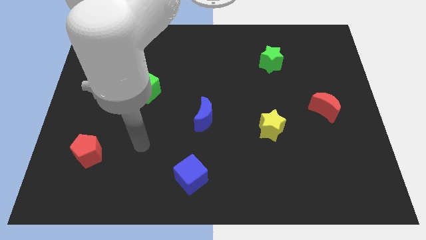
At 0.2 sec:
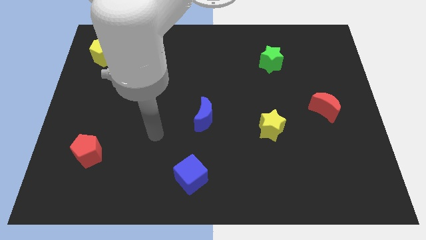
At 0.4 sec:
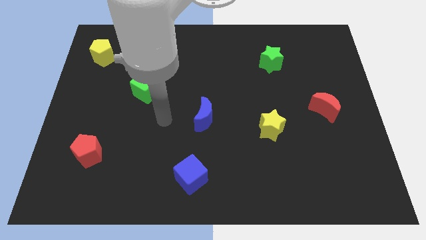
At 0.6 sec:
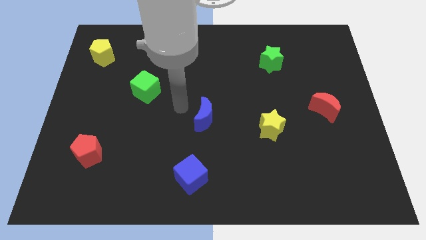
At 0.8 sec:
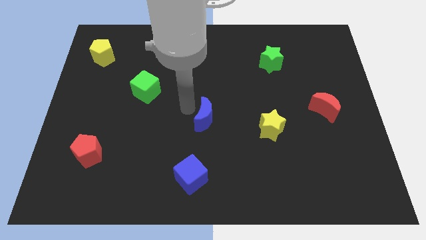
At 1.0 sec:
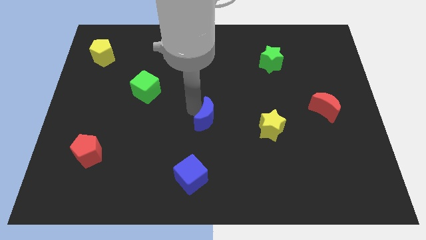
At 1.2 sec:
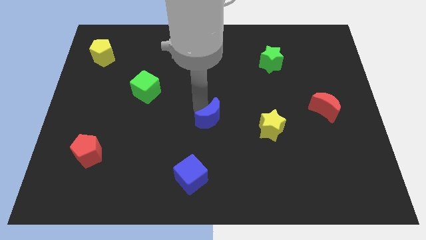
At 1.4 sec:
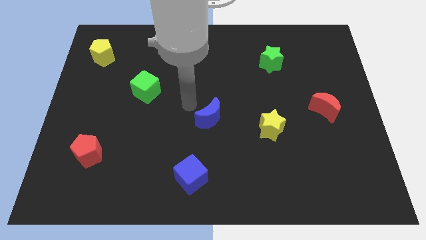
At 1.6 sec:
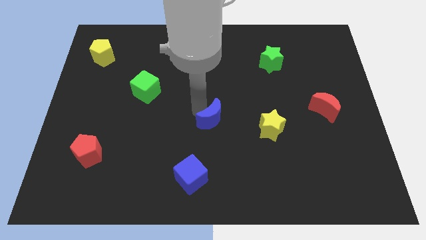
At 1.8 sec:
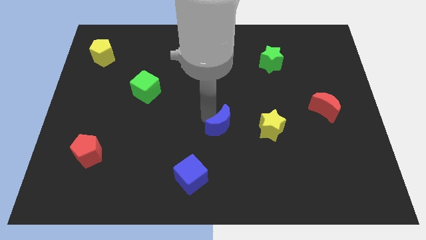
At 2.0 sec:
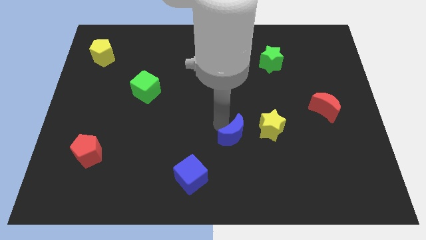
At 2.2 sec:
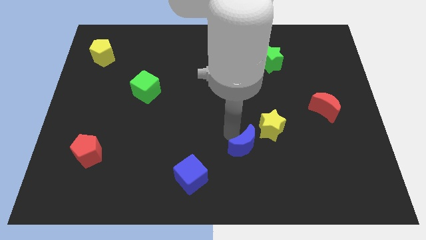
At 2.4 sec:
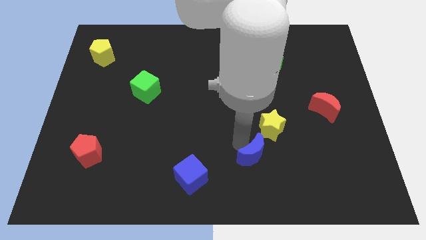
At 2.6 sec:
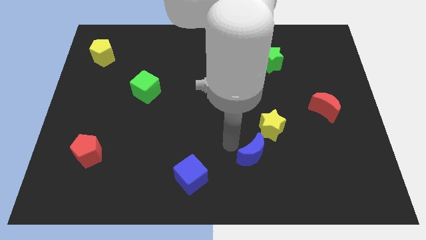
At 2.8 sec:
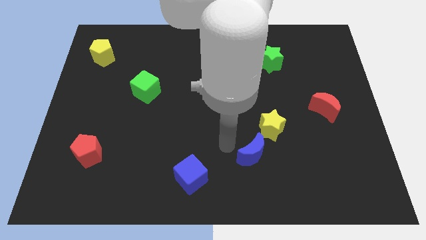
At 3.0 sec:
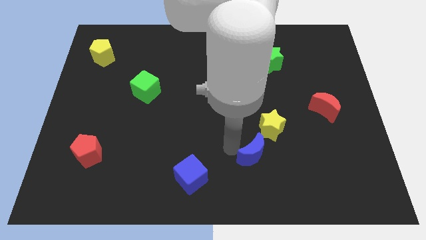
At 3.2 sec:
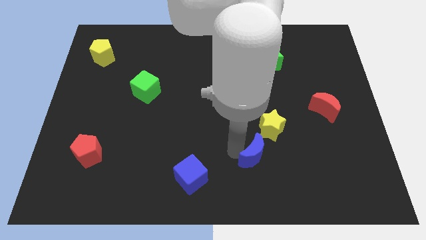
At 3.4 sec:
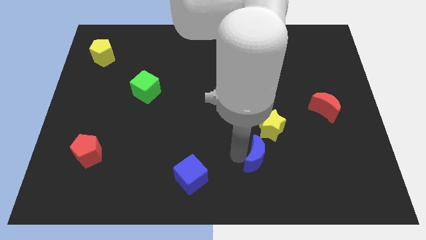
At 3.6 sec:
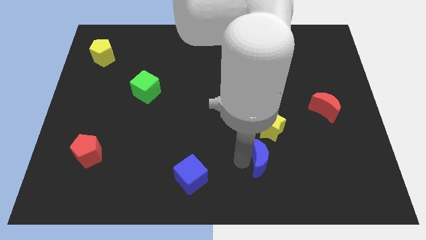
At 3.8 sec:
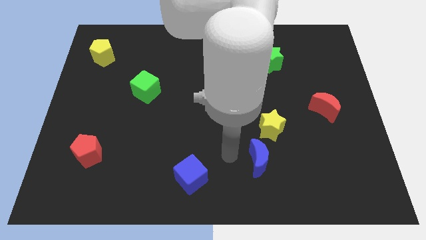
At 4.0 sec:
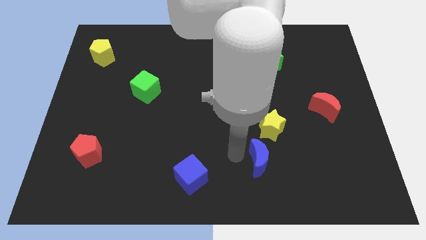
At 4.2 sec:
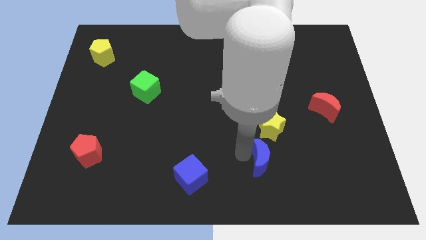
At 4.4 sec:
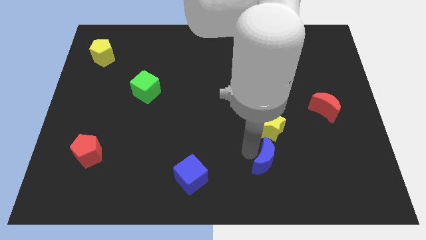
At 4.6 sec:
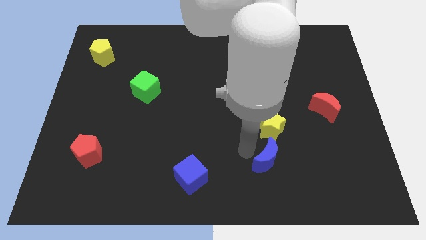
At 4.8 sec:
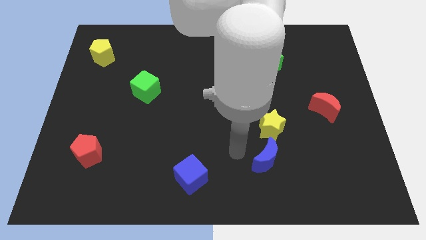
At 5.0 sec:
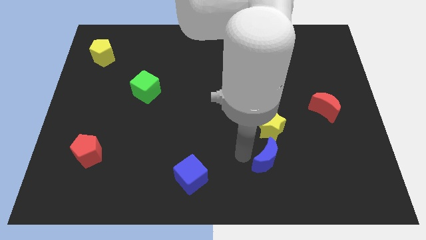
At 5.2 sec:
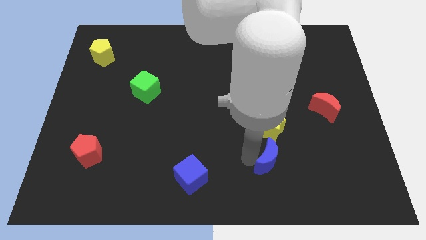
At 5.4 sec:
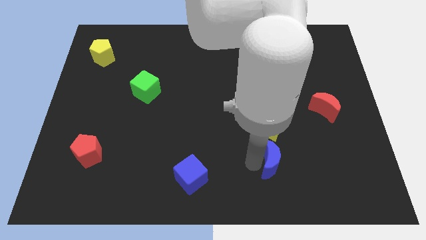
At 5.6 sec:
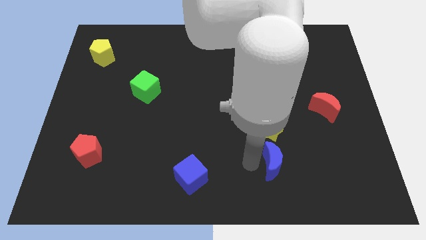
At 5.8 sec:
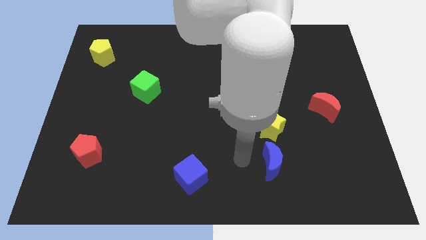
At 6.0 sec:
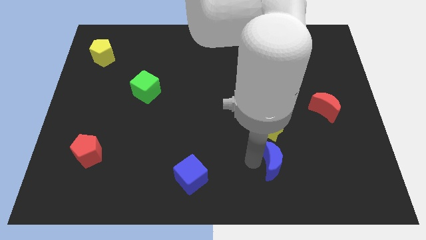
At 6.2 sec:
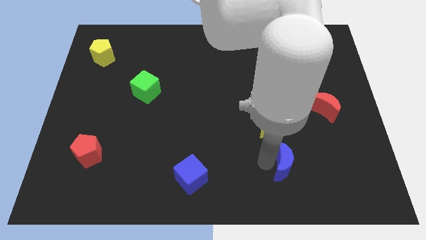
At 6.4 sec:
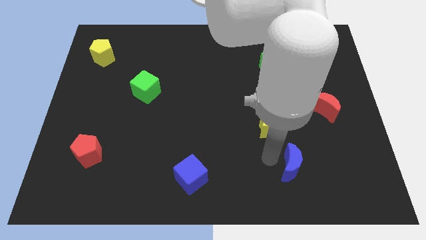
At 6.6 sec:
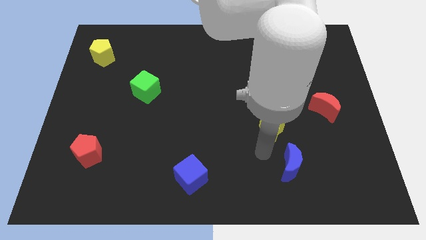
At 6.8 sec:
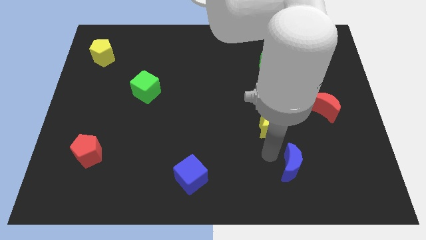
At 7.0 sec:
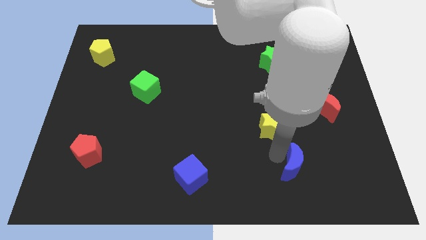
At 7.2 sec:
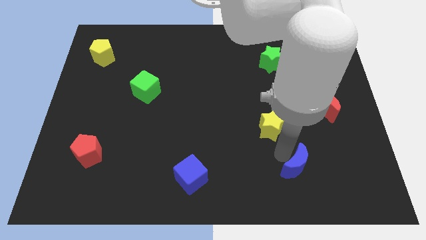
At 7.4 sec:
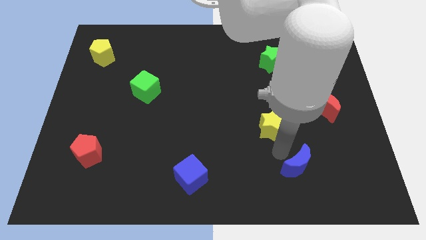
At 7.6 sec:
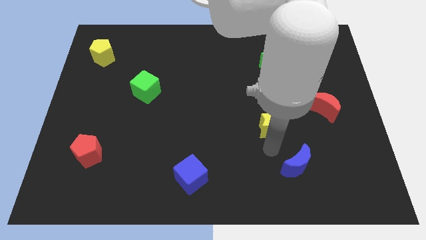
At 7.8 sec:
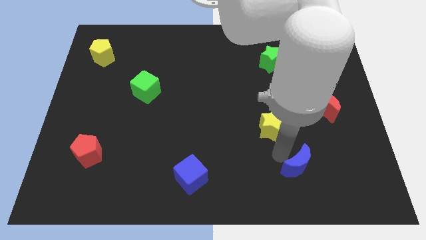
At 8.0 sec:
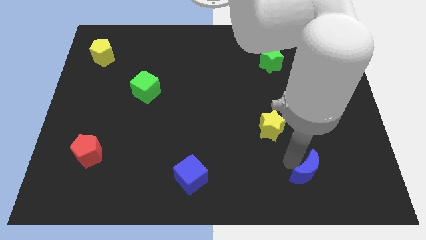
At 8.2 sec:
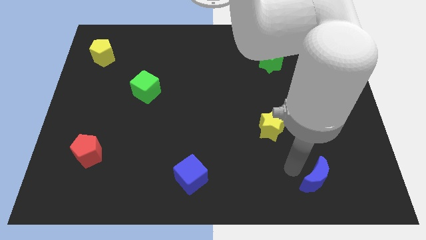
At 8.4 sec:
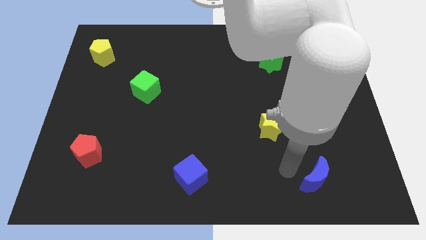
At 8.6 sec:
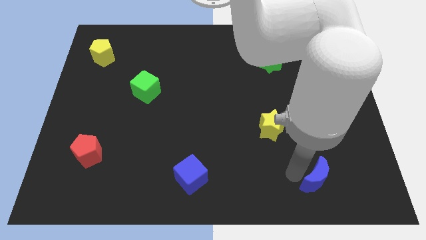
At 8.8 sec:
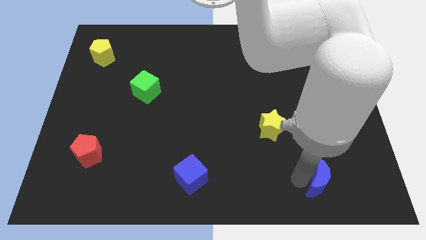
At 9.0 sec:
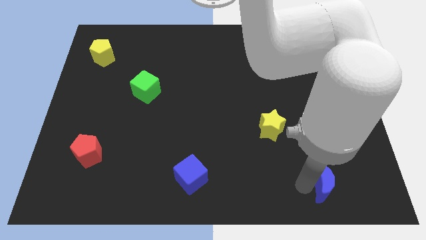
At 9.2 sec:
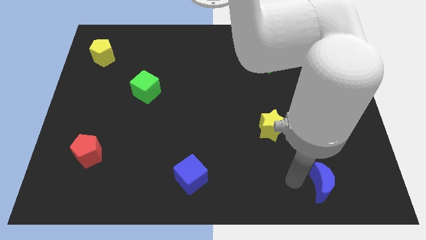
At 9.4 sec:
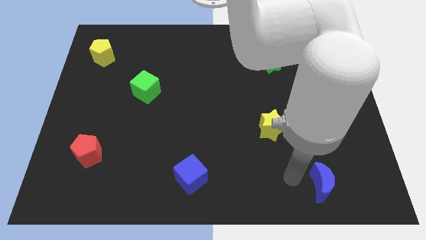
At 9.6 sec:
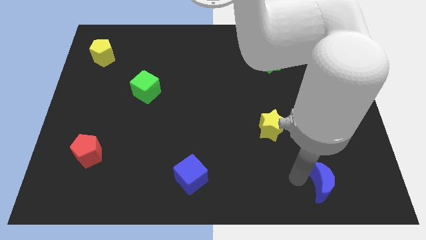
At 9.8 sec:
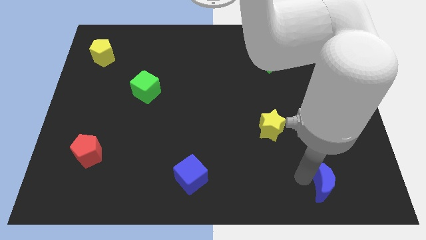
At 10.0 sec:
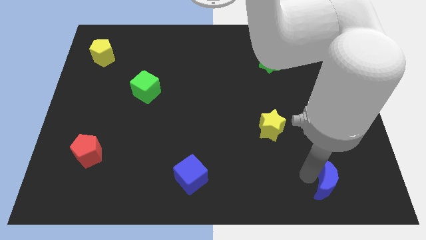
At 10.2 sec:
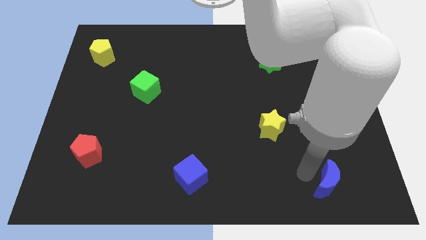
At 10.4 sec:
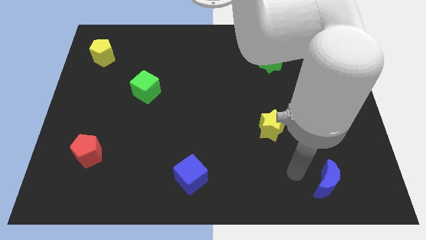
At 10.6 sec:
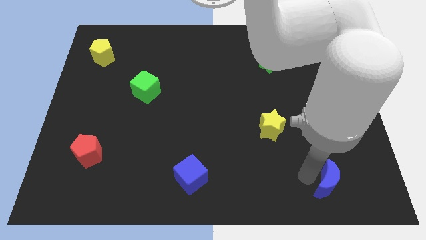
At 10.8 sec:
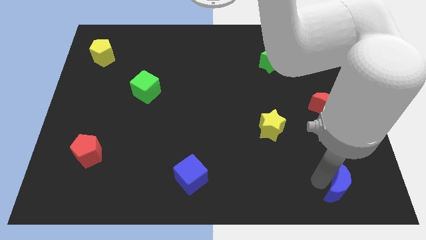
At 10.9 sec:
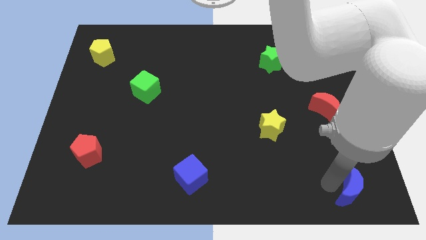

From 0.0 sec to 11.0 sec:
slide the blue moon to the lower right corner

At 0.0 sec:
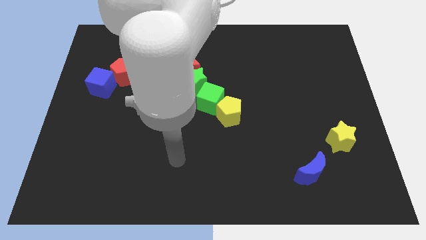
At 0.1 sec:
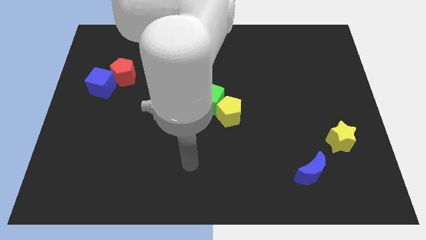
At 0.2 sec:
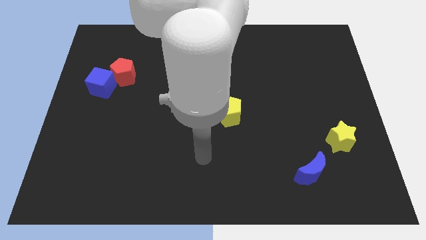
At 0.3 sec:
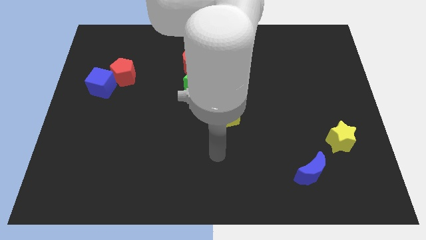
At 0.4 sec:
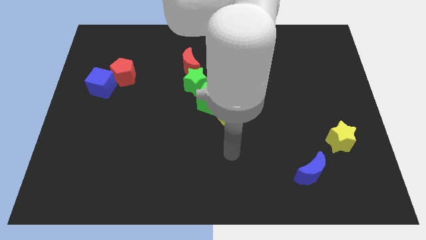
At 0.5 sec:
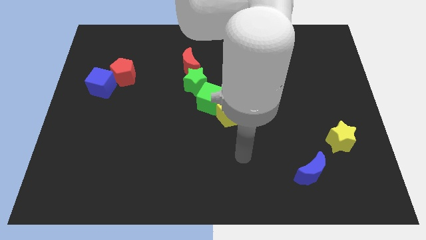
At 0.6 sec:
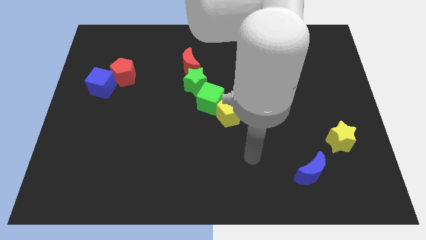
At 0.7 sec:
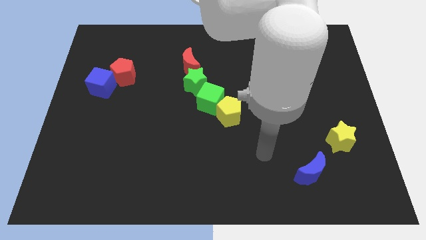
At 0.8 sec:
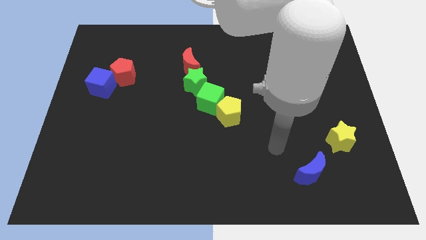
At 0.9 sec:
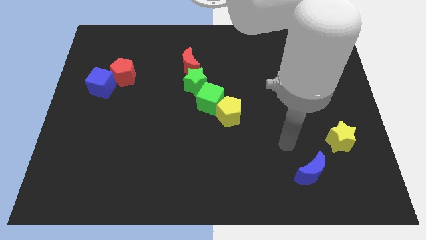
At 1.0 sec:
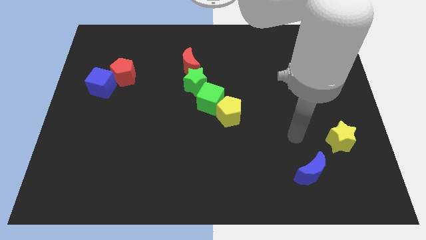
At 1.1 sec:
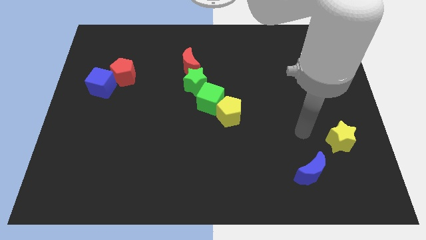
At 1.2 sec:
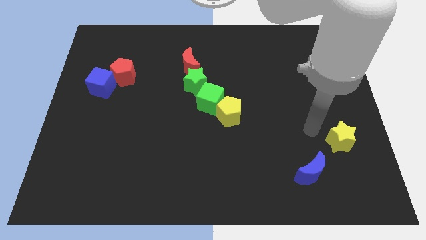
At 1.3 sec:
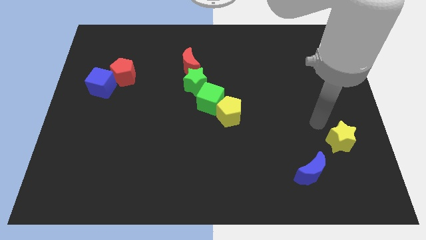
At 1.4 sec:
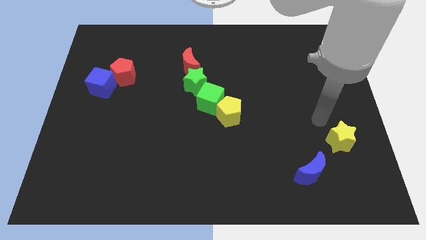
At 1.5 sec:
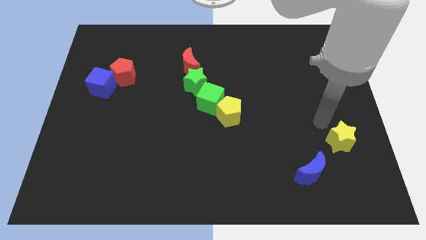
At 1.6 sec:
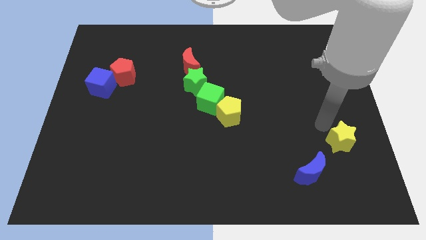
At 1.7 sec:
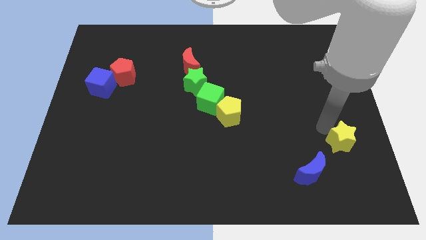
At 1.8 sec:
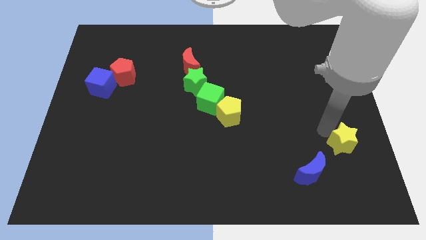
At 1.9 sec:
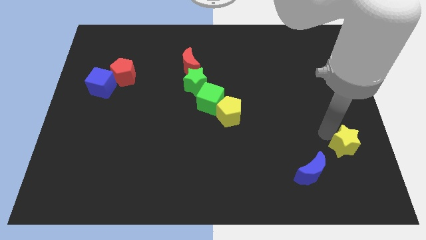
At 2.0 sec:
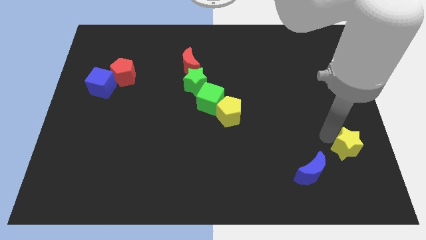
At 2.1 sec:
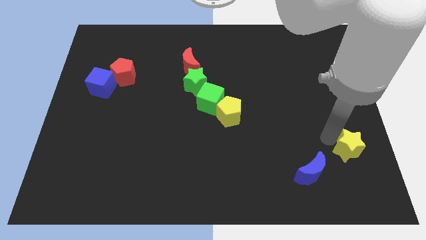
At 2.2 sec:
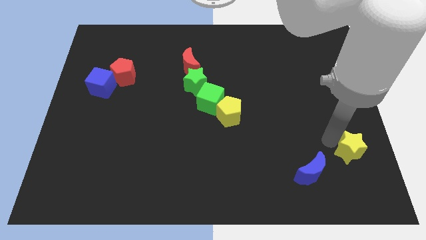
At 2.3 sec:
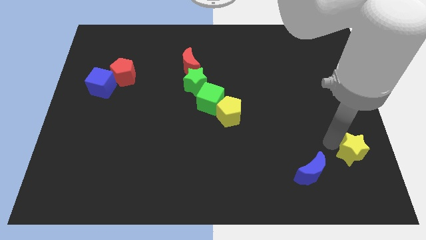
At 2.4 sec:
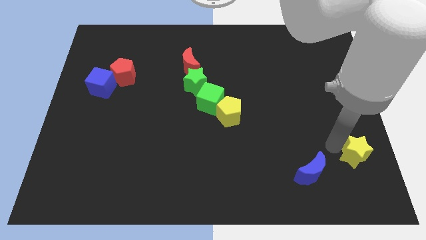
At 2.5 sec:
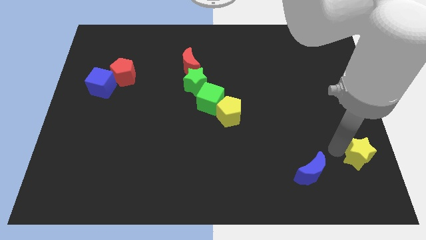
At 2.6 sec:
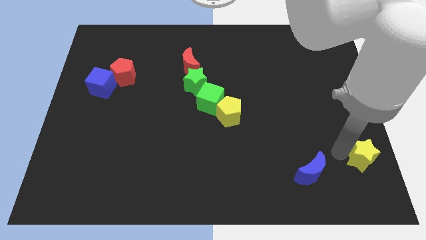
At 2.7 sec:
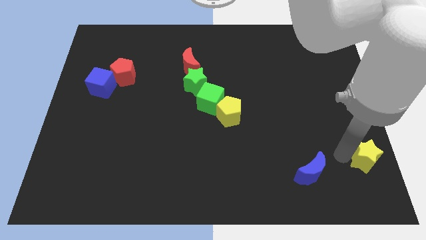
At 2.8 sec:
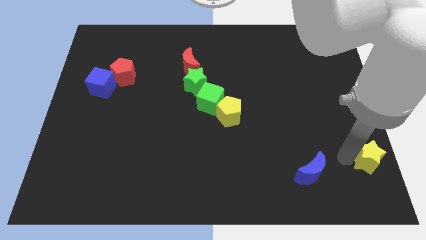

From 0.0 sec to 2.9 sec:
slide the yellow star to the bottom right corner
